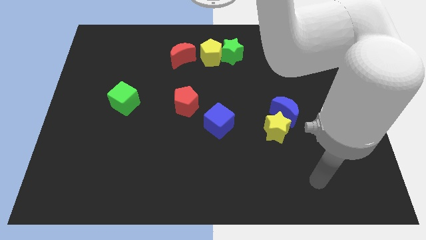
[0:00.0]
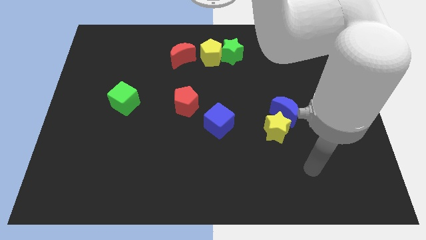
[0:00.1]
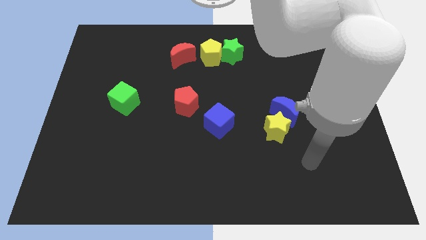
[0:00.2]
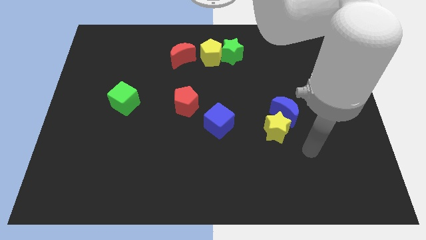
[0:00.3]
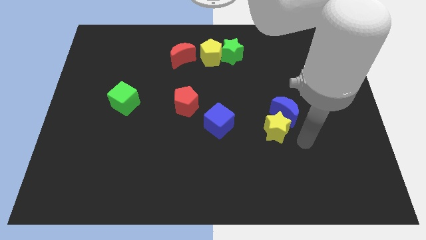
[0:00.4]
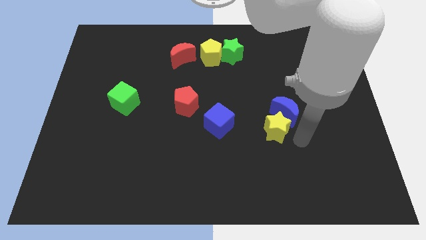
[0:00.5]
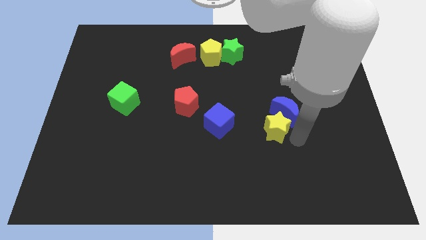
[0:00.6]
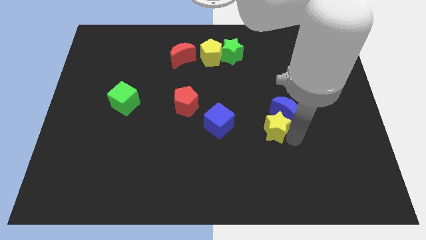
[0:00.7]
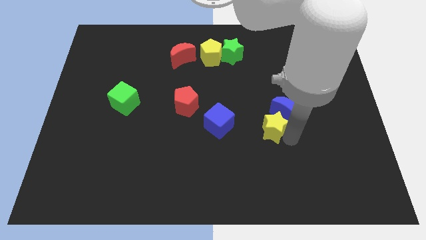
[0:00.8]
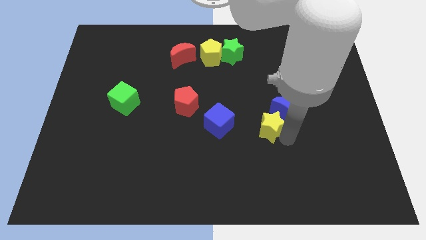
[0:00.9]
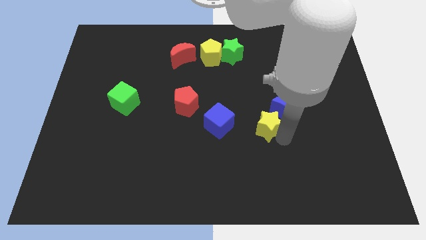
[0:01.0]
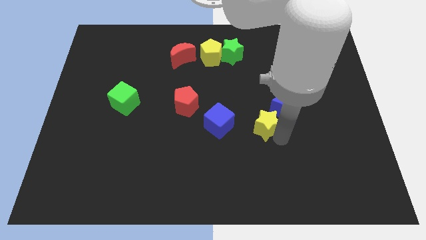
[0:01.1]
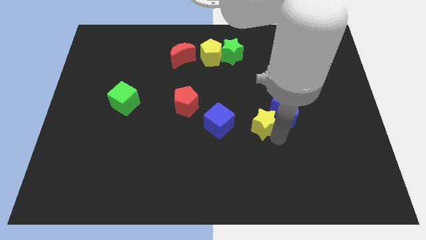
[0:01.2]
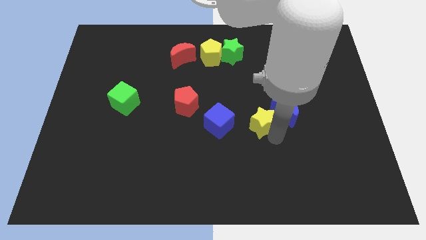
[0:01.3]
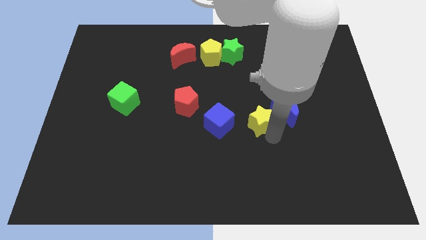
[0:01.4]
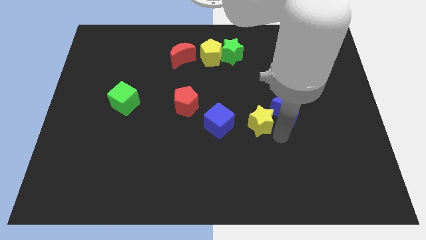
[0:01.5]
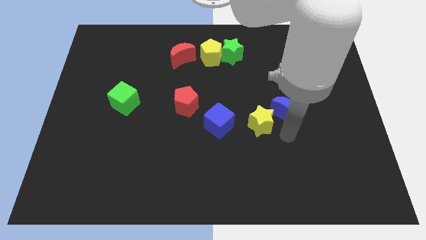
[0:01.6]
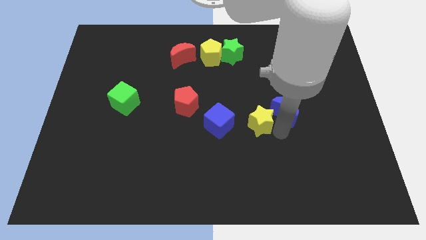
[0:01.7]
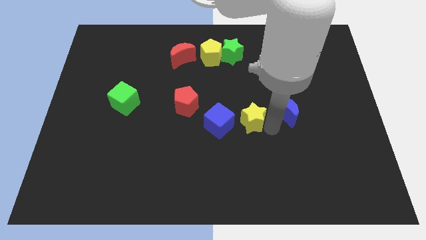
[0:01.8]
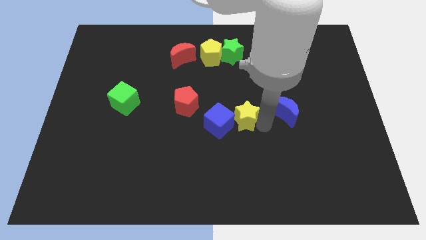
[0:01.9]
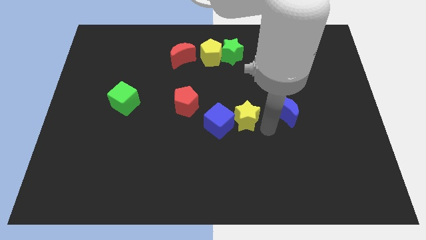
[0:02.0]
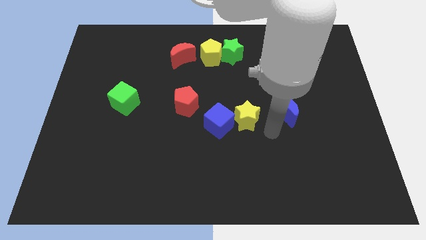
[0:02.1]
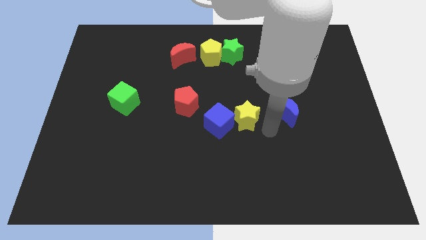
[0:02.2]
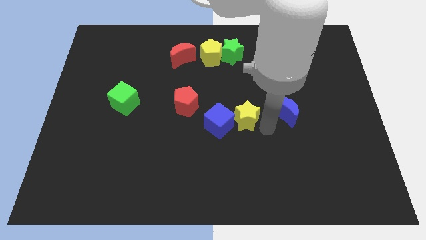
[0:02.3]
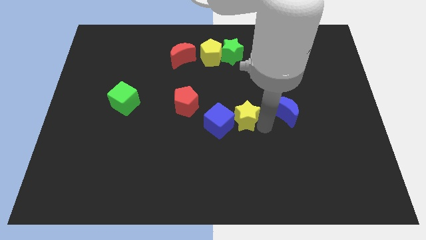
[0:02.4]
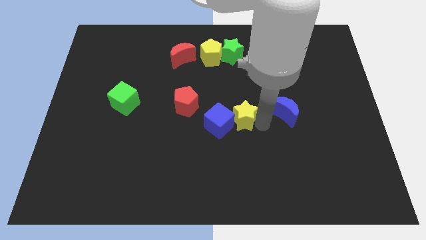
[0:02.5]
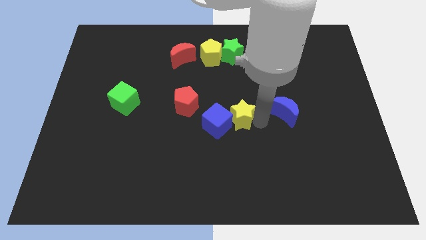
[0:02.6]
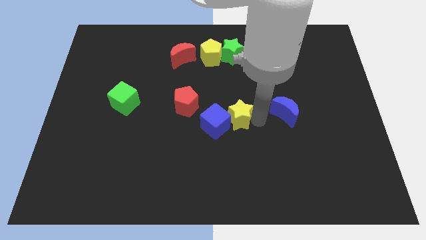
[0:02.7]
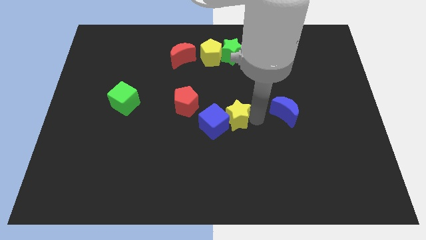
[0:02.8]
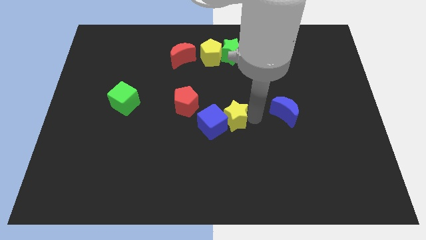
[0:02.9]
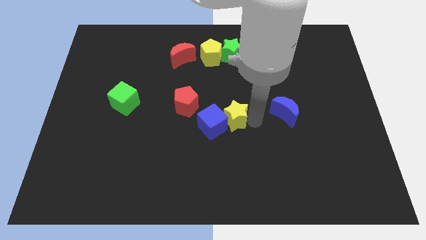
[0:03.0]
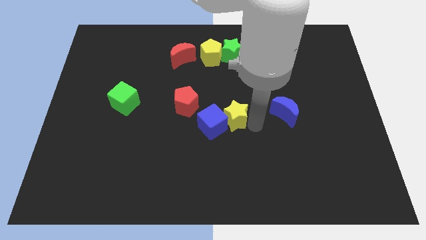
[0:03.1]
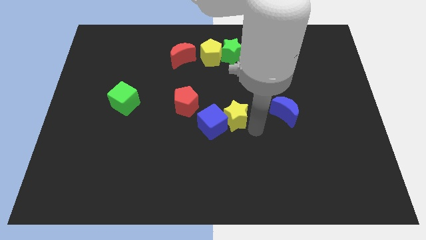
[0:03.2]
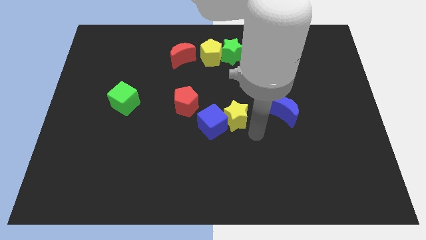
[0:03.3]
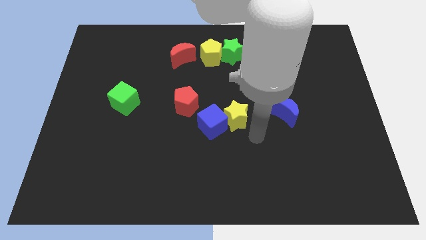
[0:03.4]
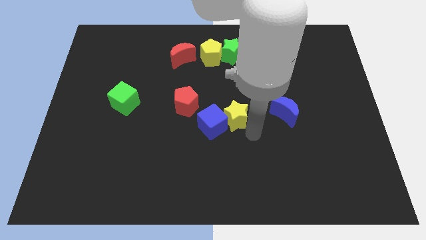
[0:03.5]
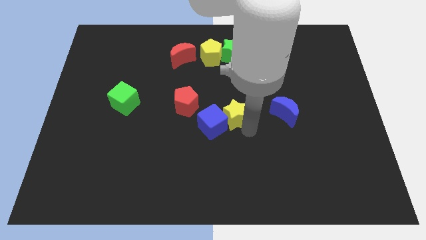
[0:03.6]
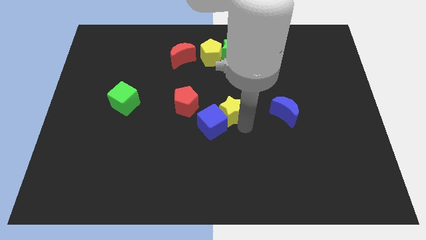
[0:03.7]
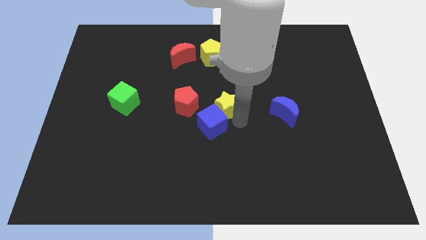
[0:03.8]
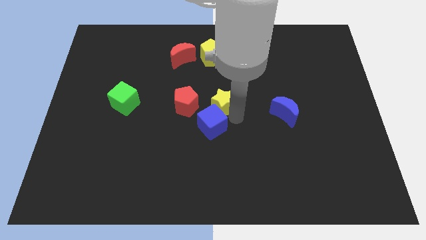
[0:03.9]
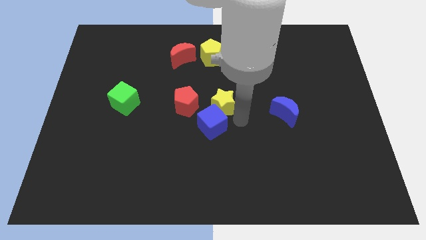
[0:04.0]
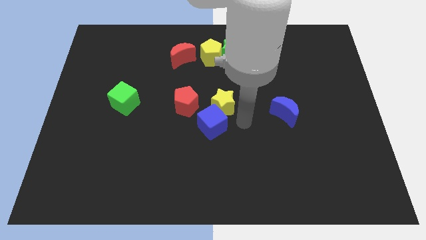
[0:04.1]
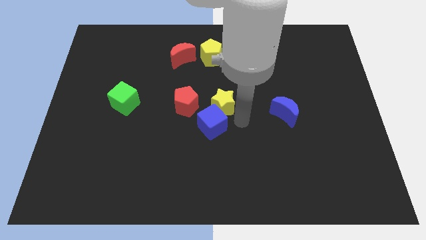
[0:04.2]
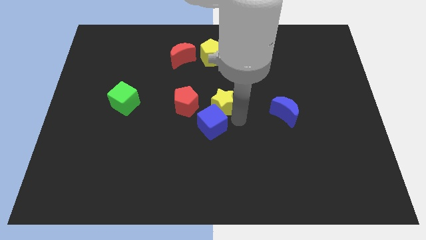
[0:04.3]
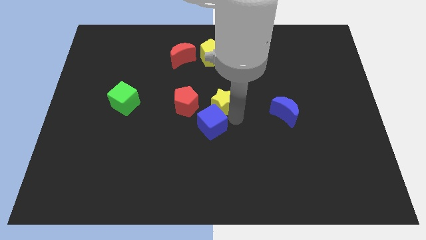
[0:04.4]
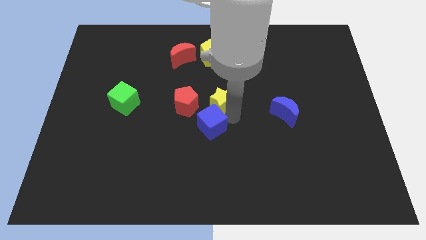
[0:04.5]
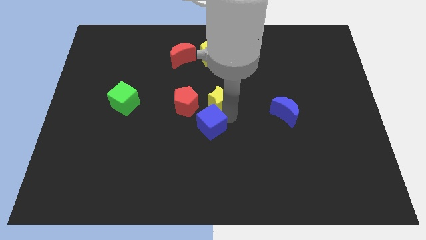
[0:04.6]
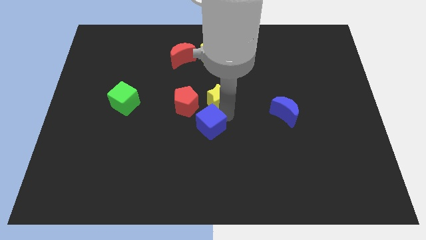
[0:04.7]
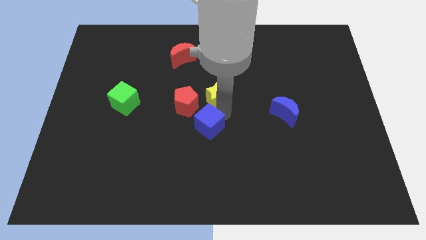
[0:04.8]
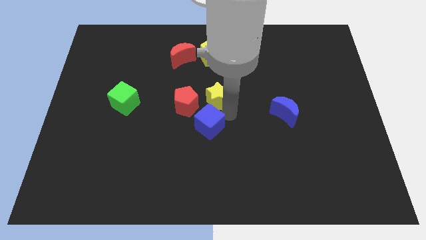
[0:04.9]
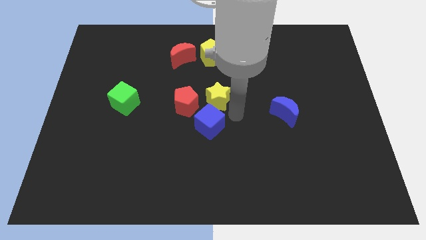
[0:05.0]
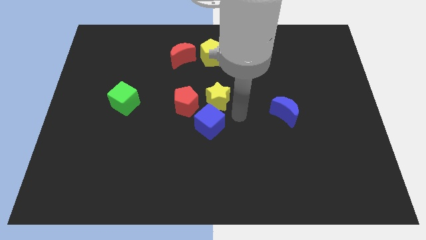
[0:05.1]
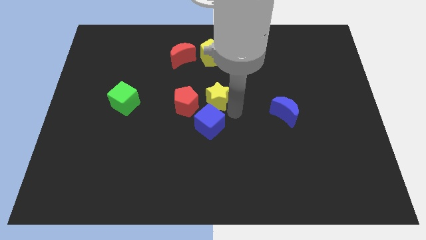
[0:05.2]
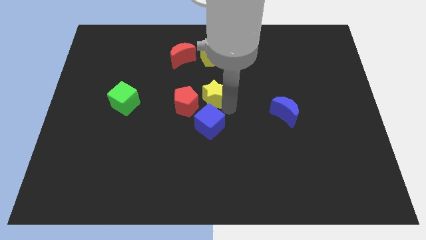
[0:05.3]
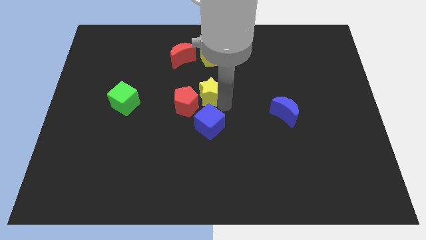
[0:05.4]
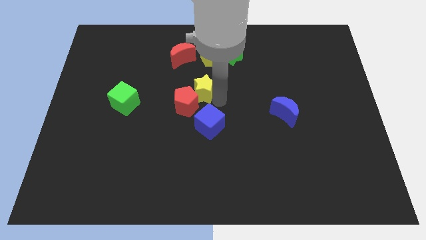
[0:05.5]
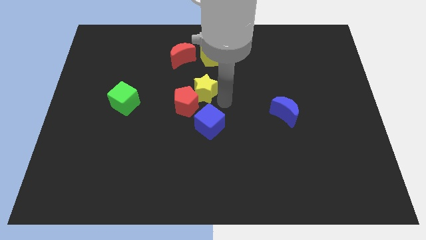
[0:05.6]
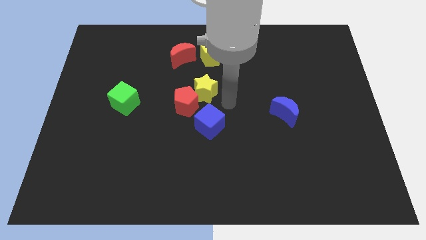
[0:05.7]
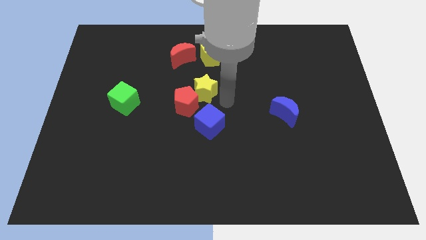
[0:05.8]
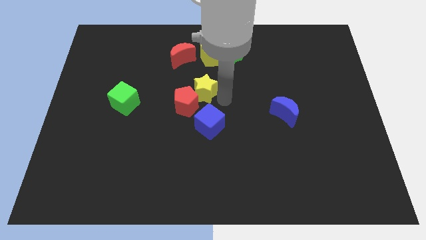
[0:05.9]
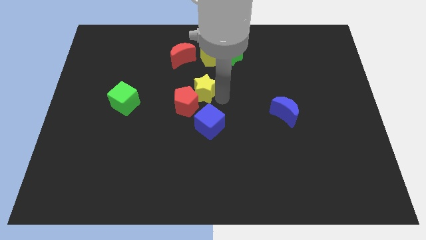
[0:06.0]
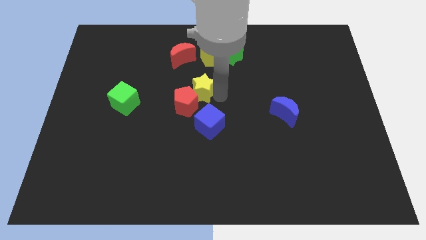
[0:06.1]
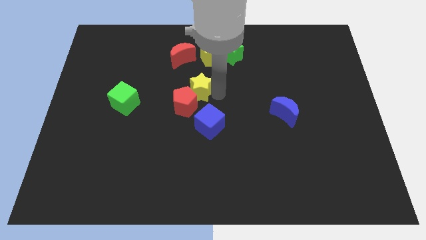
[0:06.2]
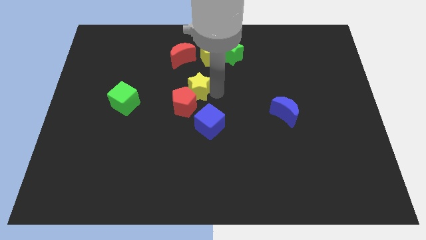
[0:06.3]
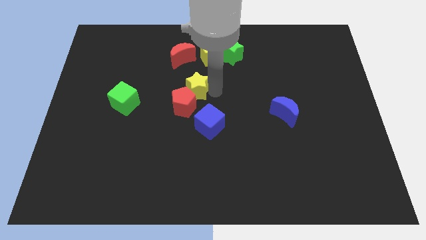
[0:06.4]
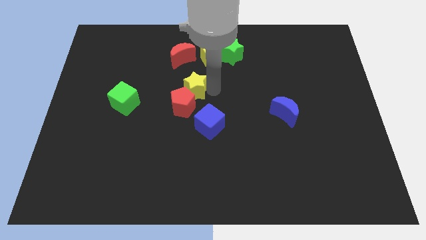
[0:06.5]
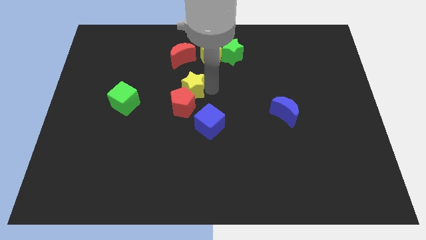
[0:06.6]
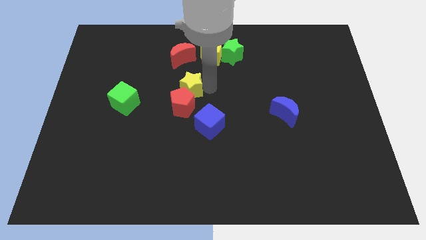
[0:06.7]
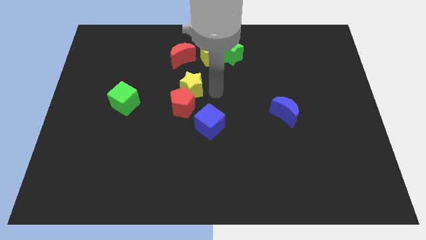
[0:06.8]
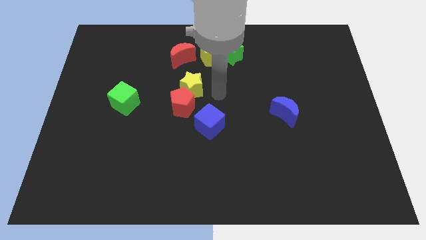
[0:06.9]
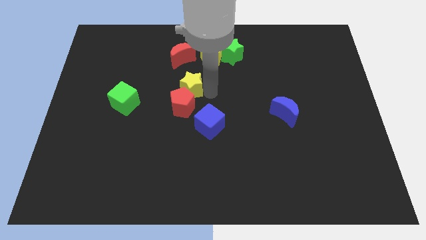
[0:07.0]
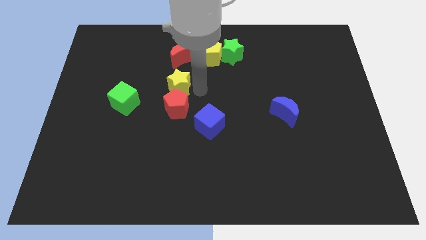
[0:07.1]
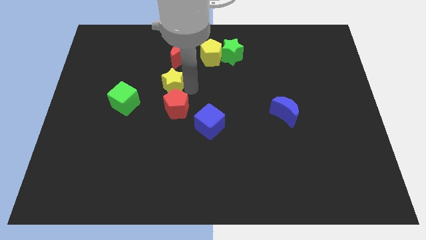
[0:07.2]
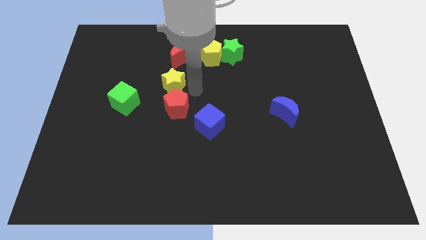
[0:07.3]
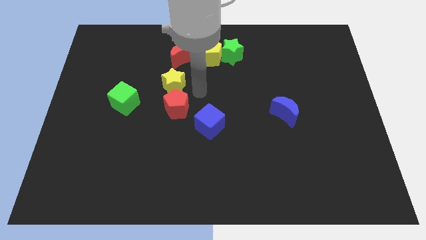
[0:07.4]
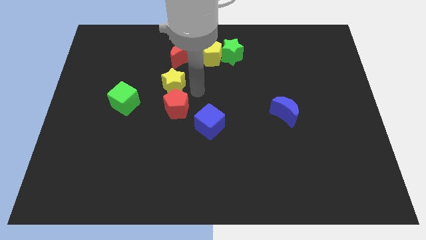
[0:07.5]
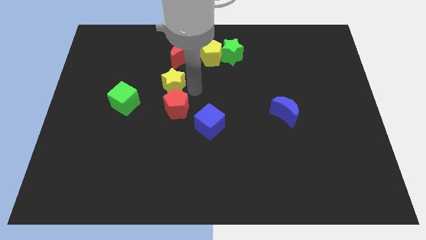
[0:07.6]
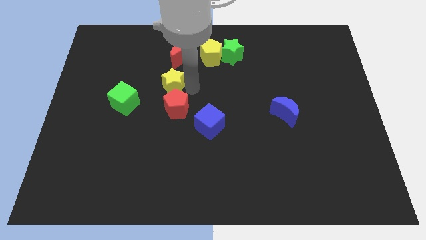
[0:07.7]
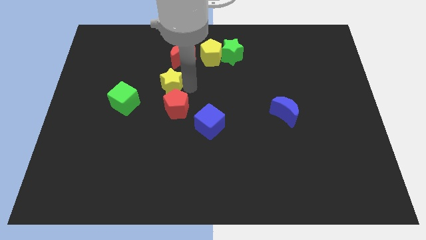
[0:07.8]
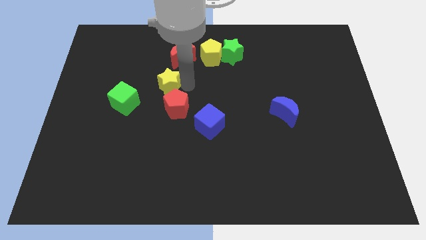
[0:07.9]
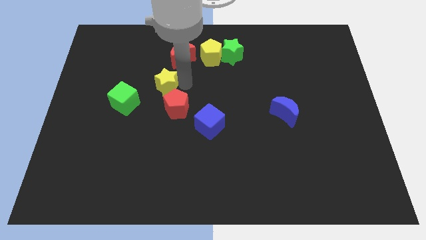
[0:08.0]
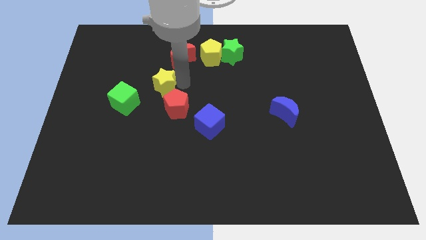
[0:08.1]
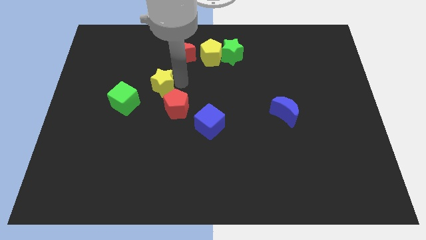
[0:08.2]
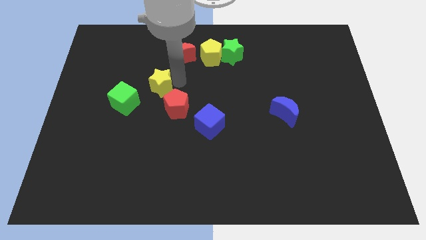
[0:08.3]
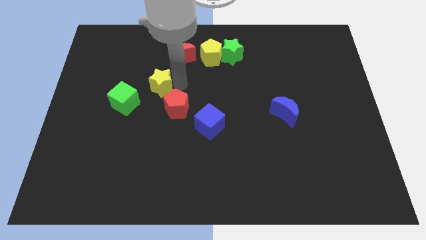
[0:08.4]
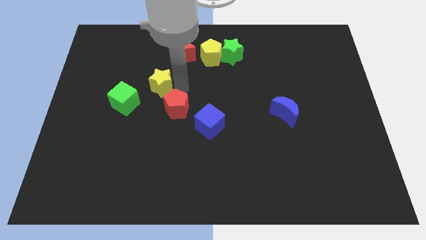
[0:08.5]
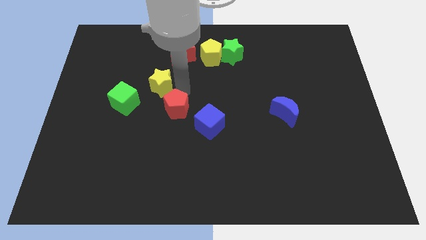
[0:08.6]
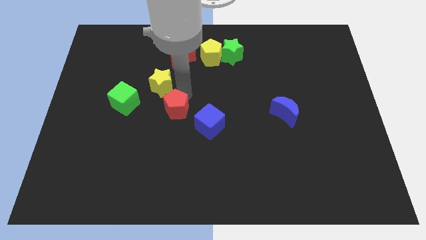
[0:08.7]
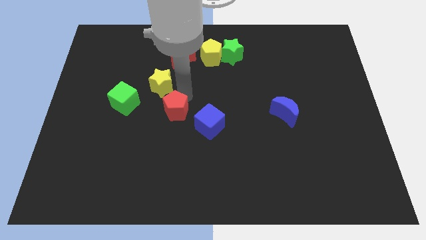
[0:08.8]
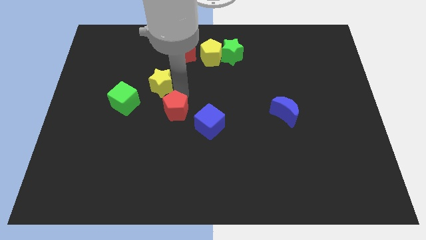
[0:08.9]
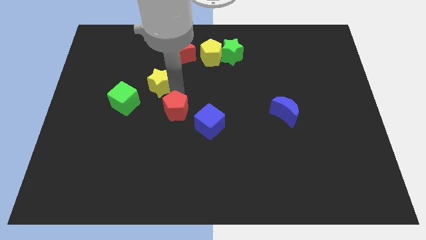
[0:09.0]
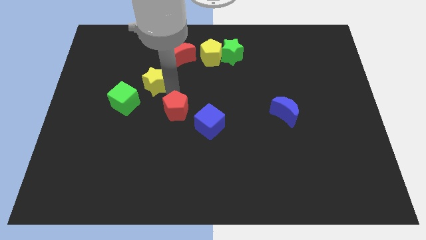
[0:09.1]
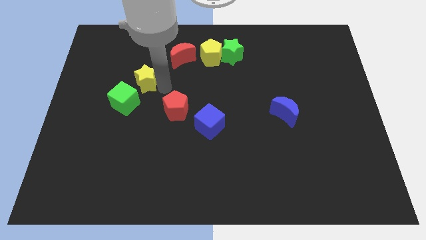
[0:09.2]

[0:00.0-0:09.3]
move the yellow star above the green cube
